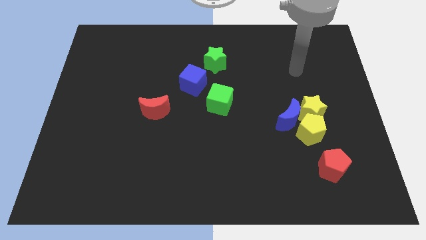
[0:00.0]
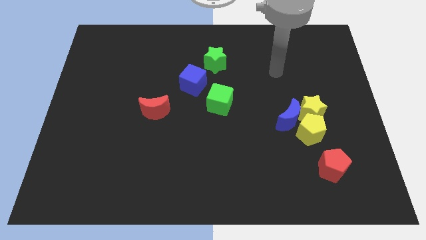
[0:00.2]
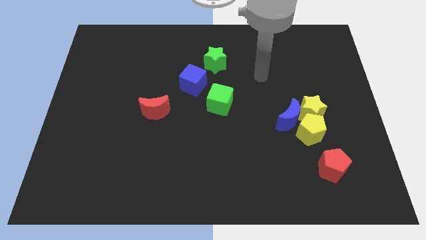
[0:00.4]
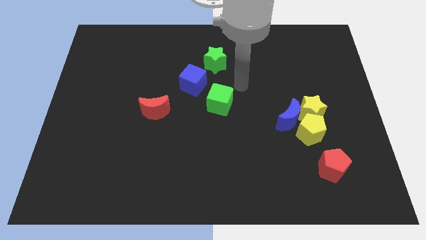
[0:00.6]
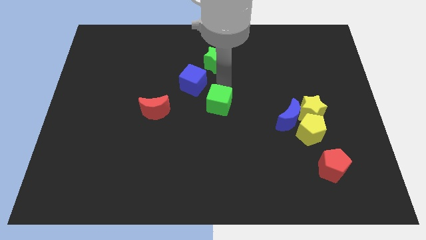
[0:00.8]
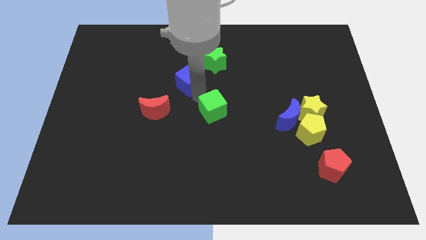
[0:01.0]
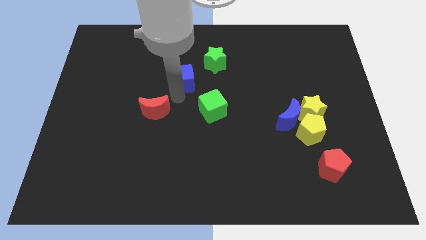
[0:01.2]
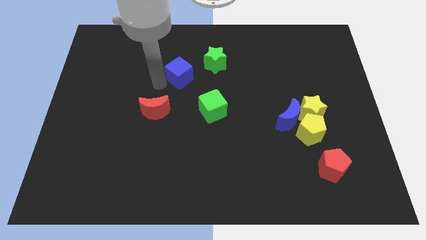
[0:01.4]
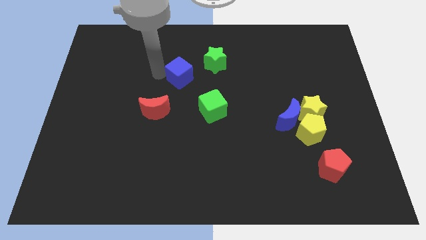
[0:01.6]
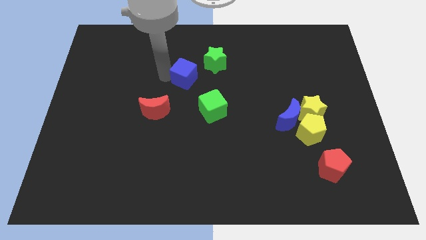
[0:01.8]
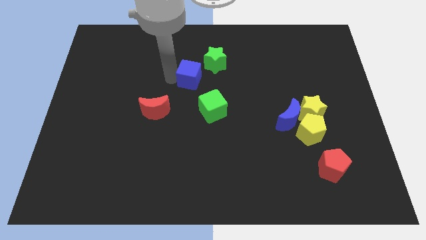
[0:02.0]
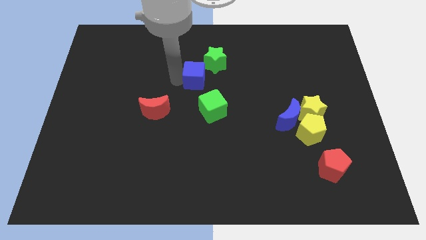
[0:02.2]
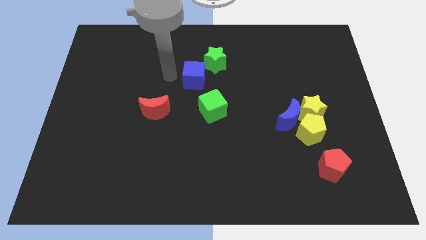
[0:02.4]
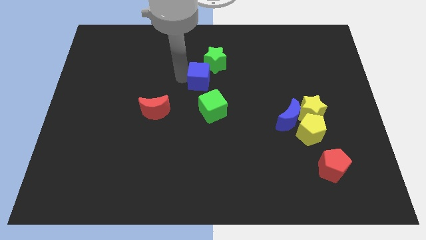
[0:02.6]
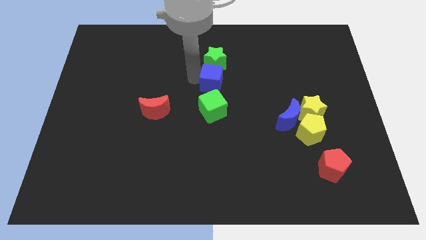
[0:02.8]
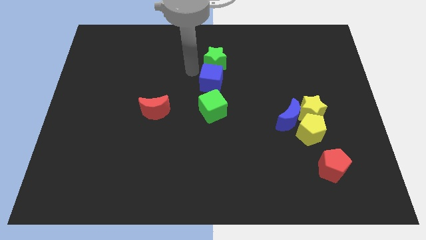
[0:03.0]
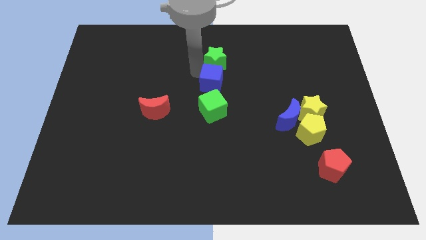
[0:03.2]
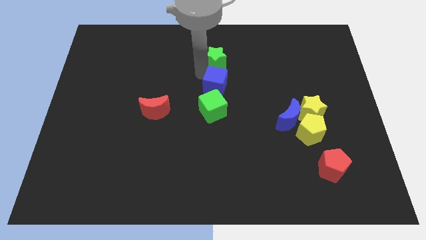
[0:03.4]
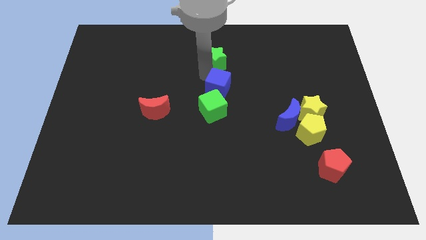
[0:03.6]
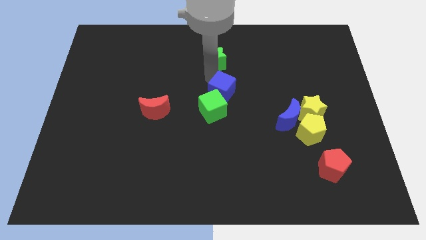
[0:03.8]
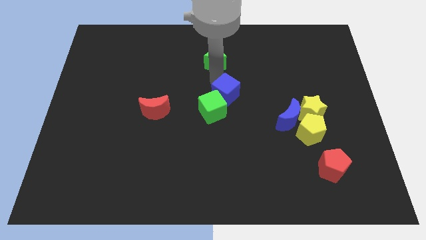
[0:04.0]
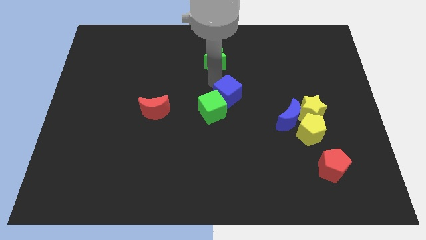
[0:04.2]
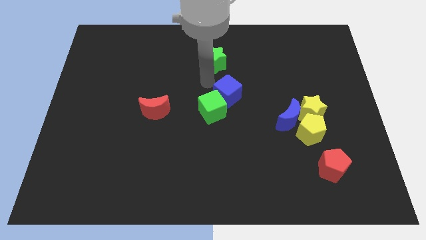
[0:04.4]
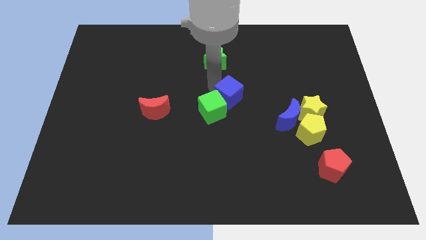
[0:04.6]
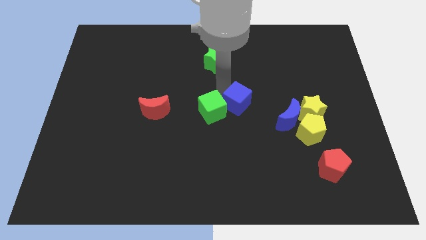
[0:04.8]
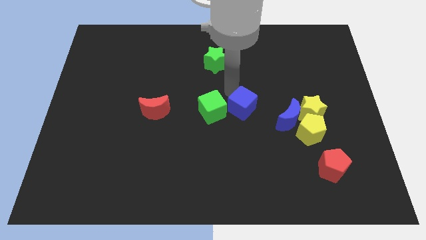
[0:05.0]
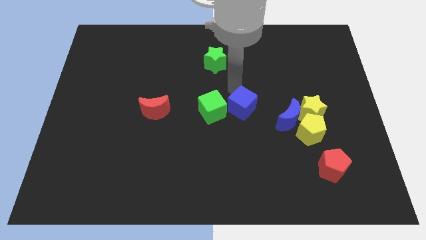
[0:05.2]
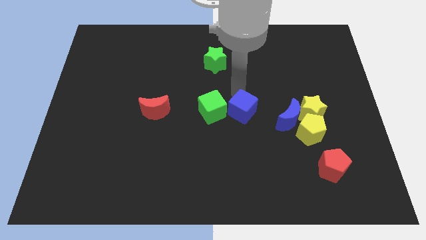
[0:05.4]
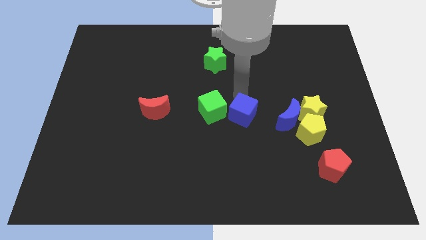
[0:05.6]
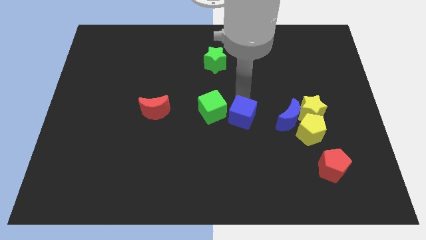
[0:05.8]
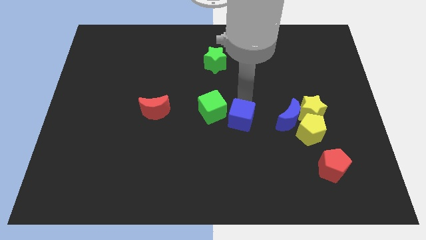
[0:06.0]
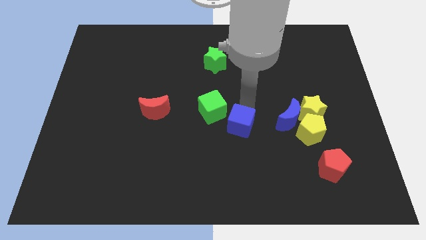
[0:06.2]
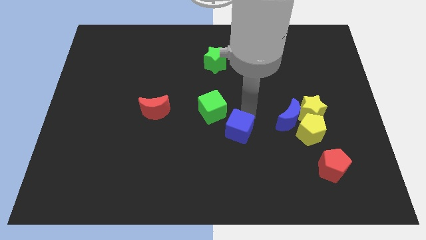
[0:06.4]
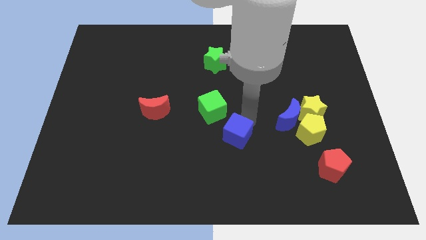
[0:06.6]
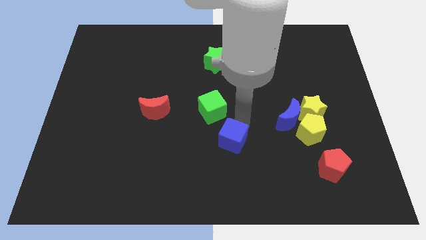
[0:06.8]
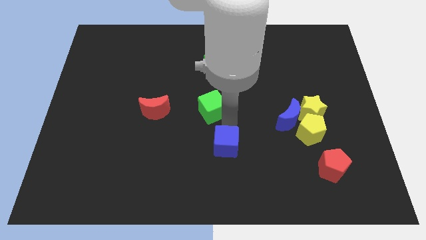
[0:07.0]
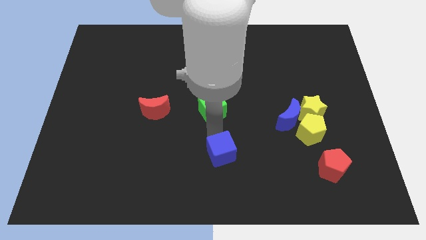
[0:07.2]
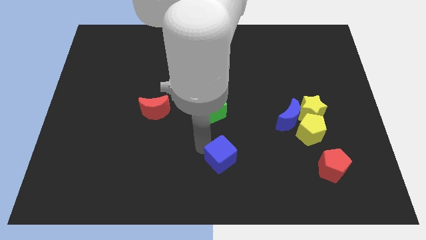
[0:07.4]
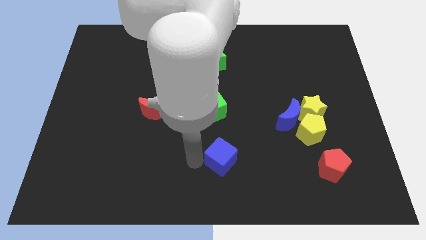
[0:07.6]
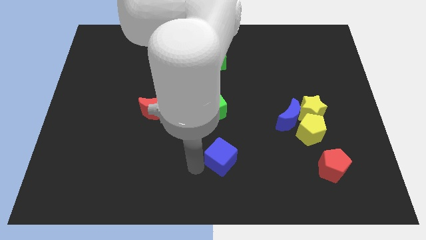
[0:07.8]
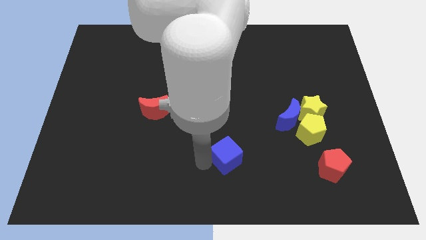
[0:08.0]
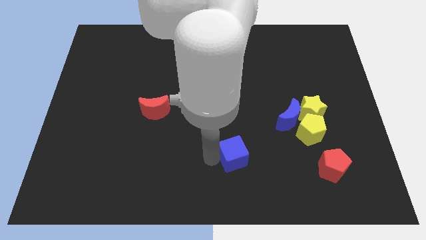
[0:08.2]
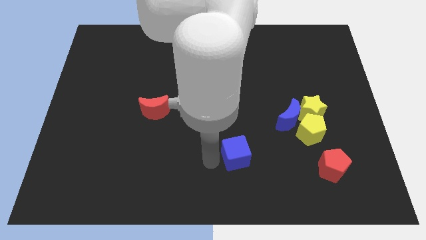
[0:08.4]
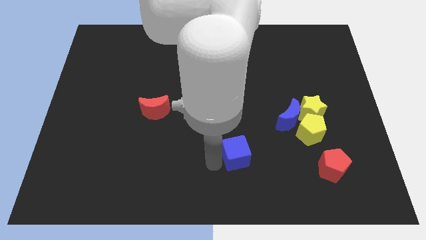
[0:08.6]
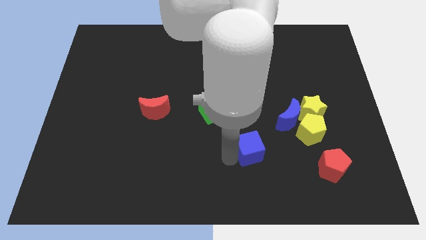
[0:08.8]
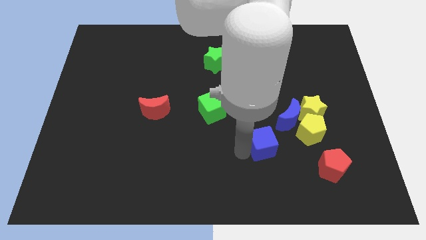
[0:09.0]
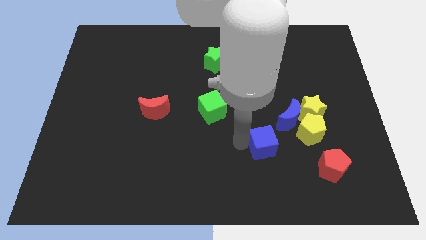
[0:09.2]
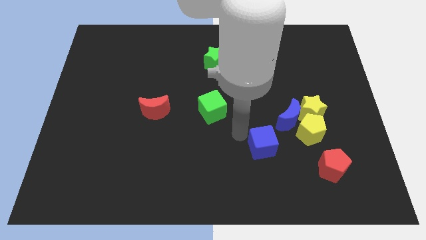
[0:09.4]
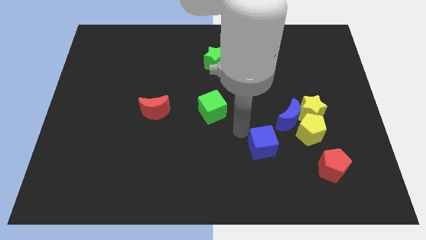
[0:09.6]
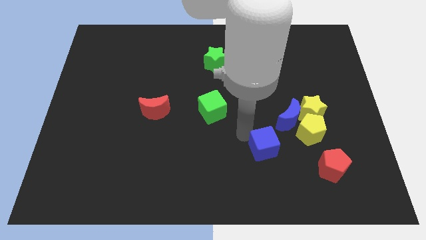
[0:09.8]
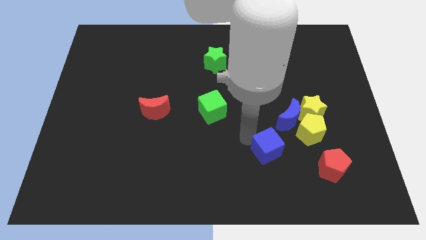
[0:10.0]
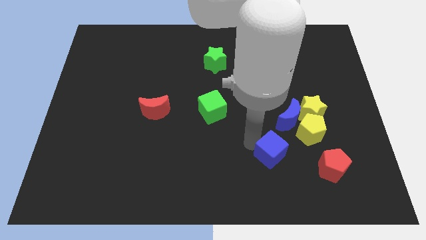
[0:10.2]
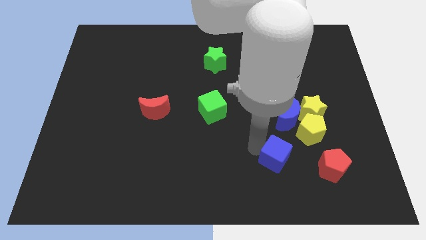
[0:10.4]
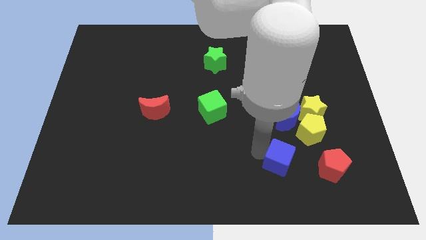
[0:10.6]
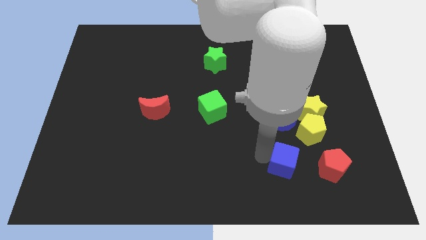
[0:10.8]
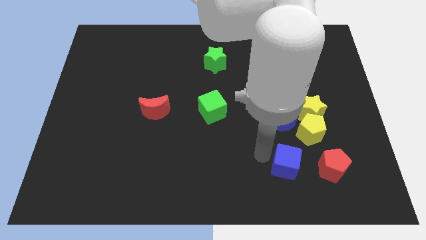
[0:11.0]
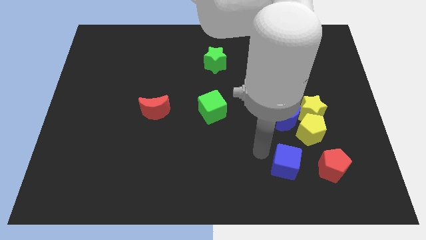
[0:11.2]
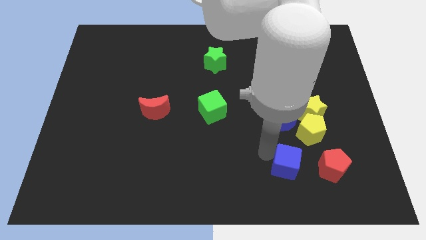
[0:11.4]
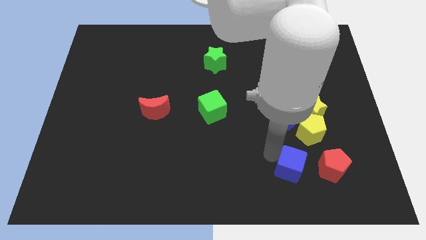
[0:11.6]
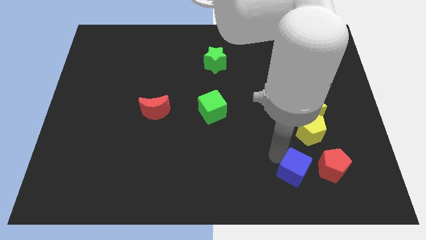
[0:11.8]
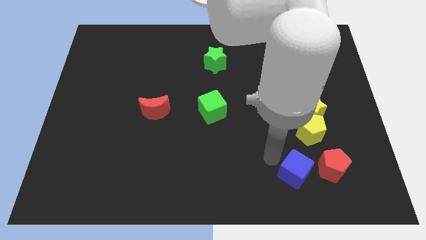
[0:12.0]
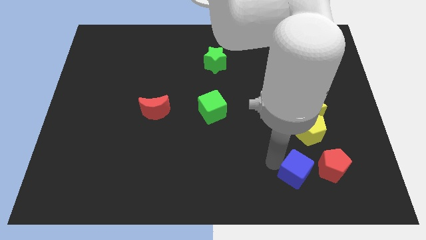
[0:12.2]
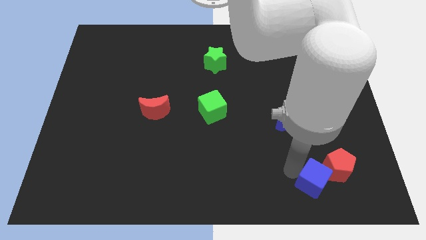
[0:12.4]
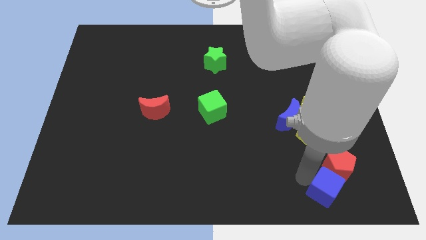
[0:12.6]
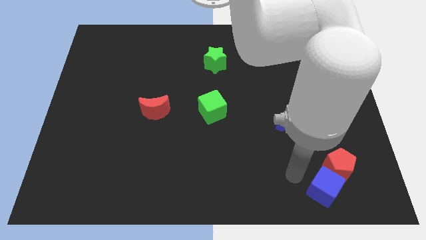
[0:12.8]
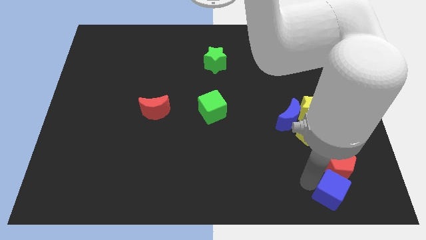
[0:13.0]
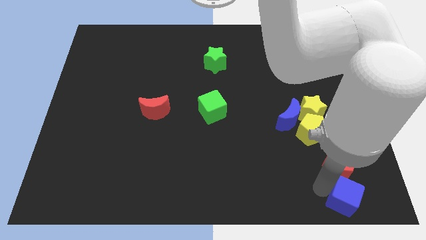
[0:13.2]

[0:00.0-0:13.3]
slide the blue cube to the bottom right
